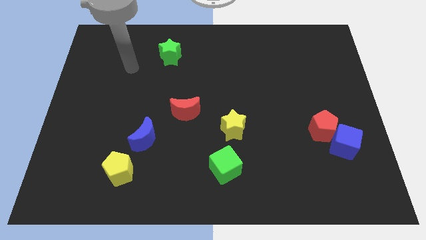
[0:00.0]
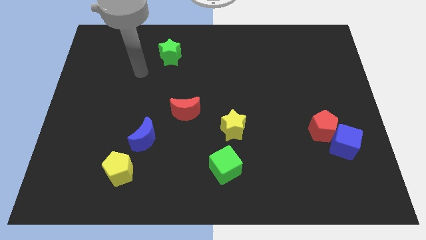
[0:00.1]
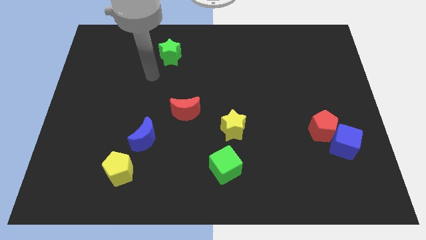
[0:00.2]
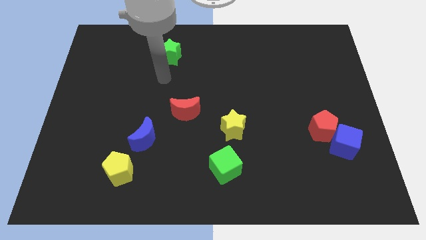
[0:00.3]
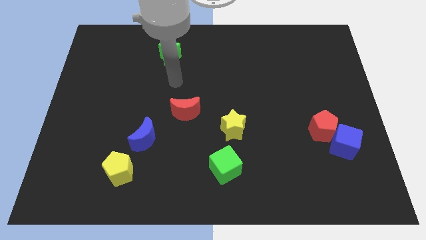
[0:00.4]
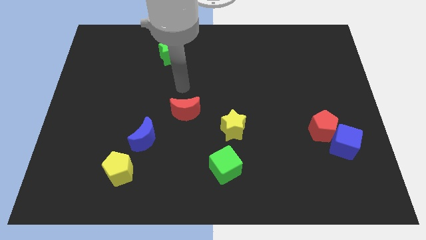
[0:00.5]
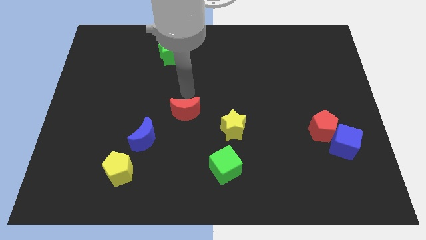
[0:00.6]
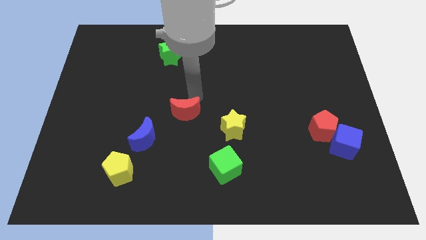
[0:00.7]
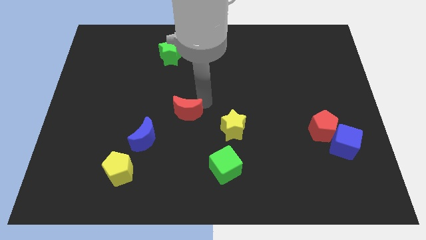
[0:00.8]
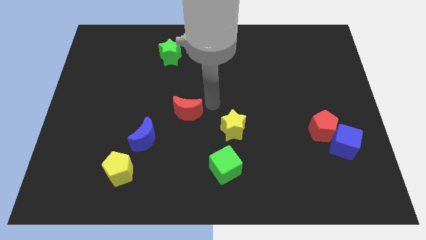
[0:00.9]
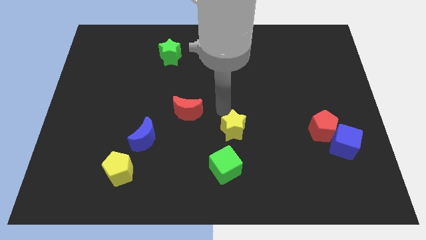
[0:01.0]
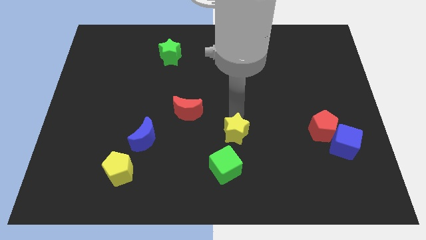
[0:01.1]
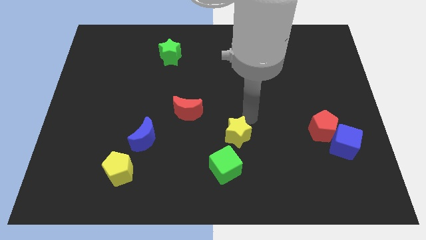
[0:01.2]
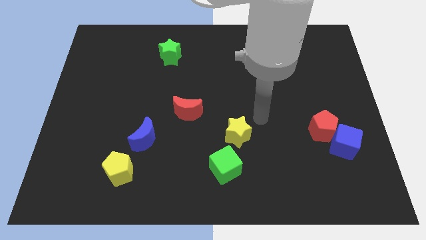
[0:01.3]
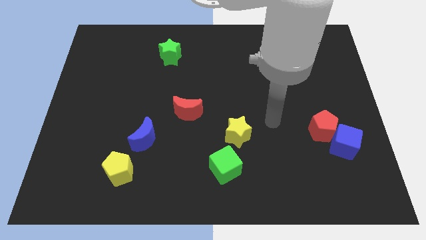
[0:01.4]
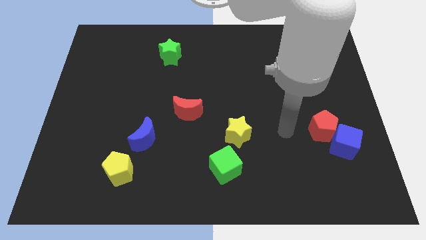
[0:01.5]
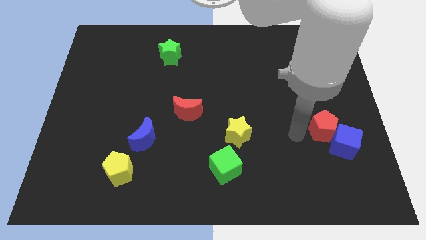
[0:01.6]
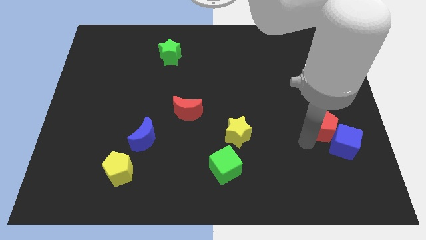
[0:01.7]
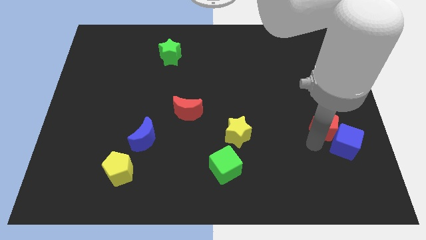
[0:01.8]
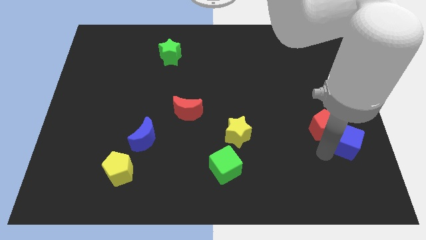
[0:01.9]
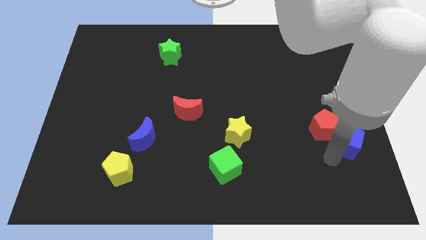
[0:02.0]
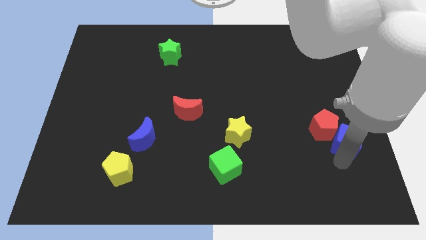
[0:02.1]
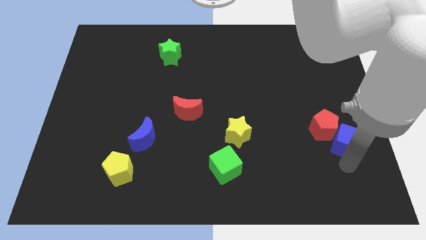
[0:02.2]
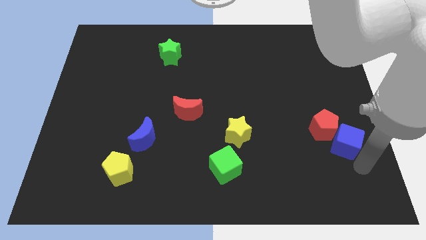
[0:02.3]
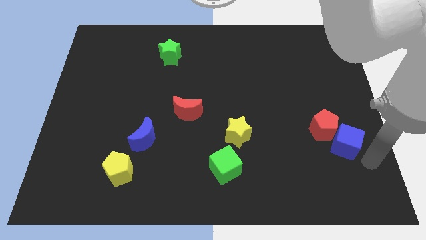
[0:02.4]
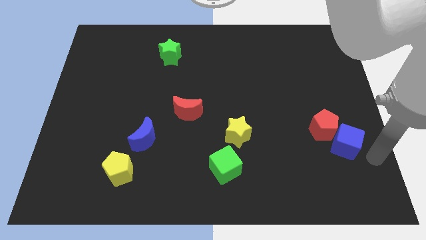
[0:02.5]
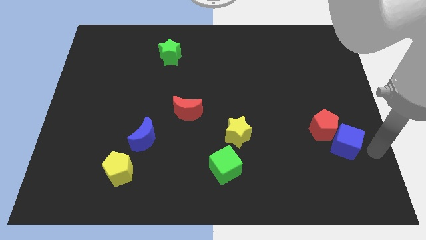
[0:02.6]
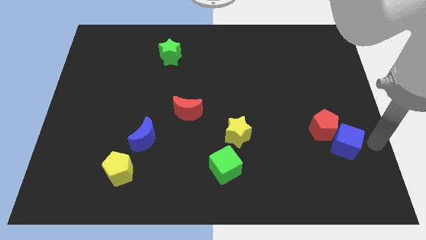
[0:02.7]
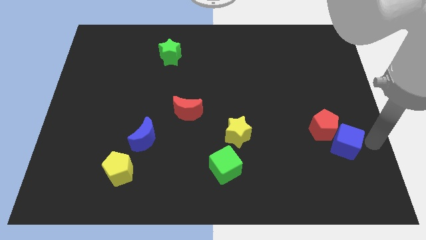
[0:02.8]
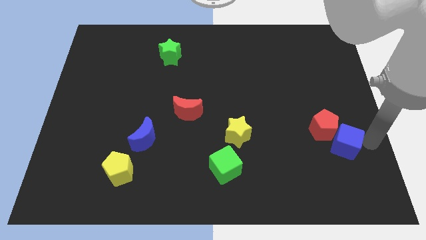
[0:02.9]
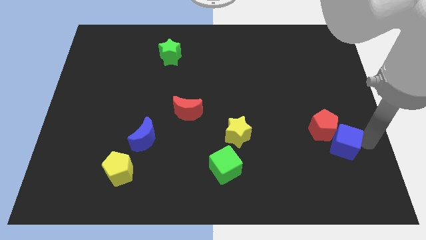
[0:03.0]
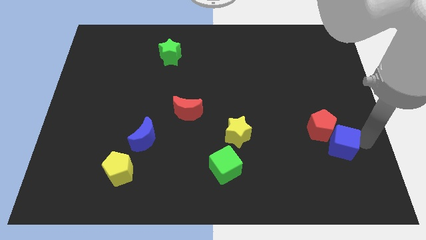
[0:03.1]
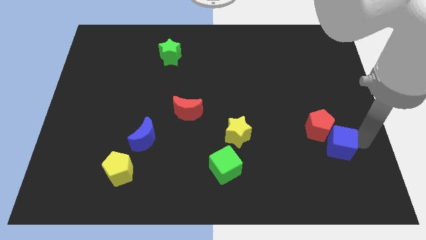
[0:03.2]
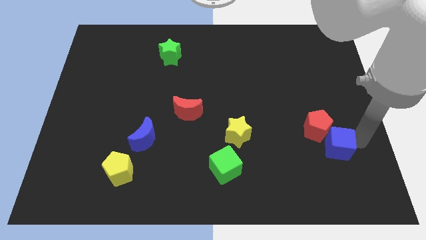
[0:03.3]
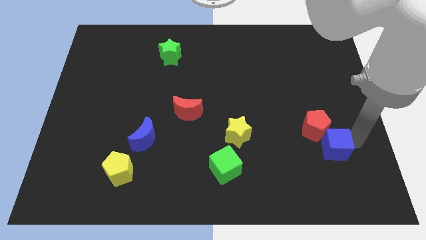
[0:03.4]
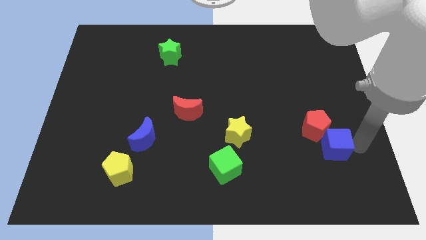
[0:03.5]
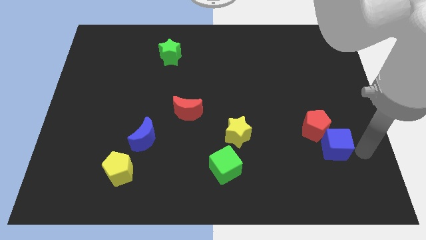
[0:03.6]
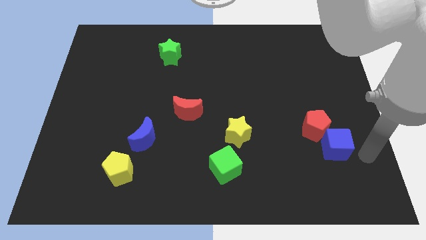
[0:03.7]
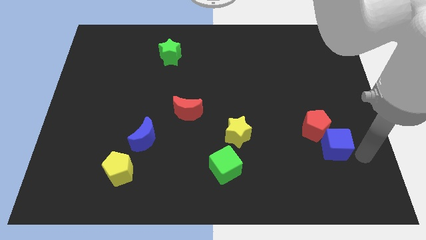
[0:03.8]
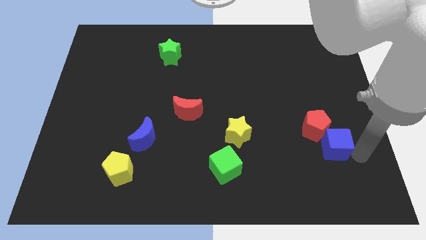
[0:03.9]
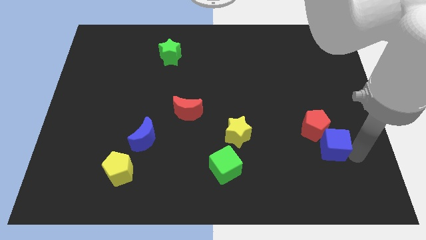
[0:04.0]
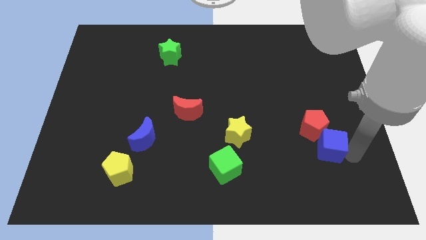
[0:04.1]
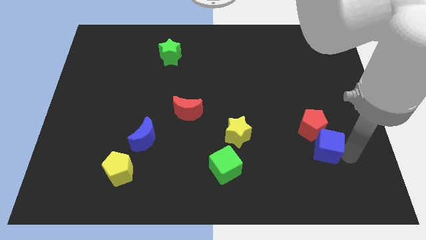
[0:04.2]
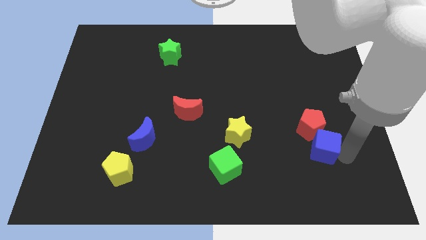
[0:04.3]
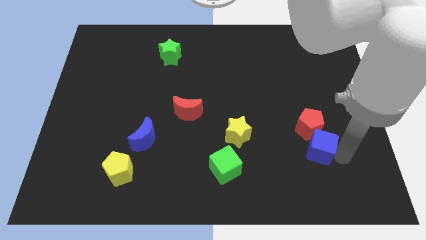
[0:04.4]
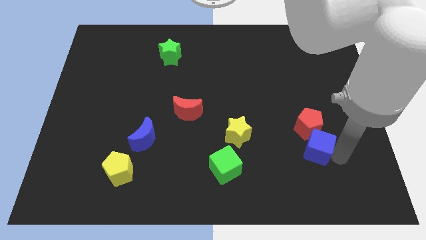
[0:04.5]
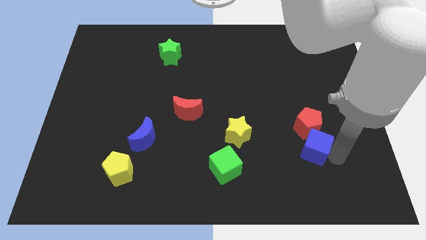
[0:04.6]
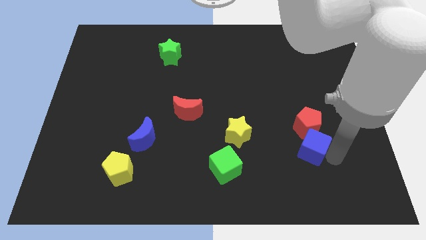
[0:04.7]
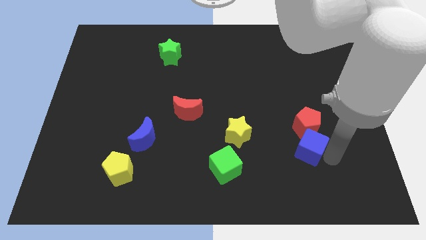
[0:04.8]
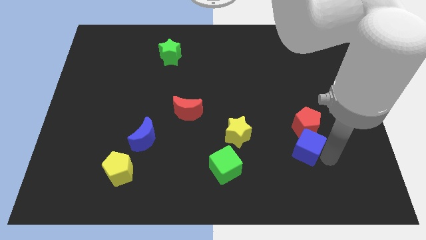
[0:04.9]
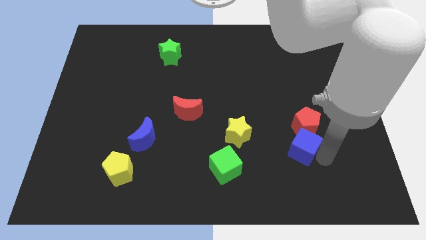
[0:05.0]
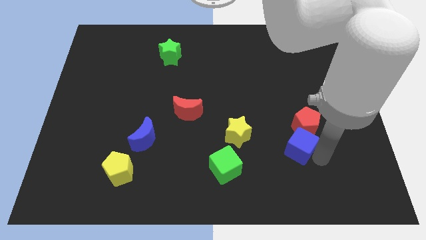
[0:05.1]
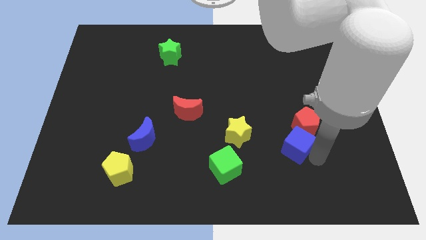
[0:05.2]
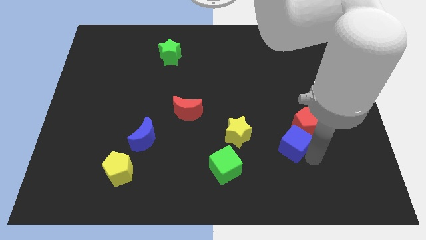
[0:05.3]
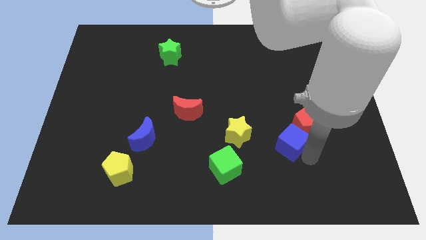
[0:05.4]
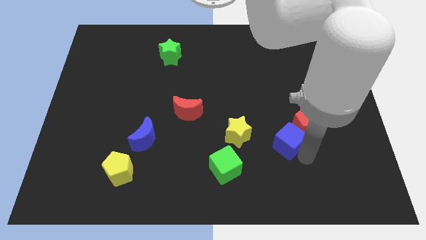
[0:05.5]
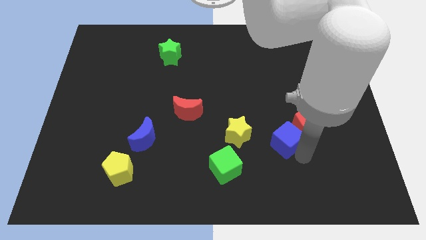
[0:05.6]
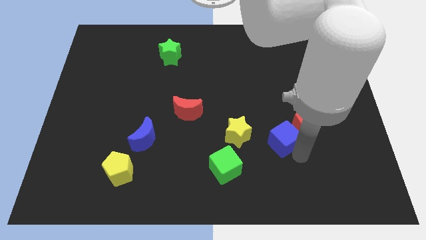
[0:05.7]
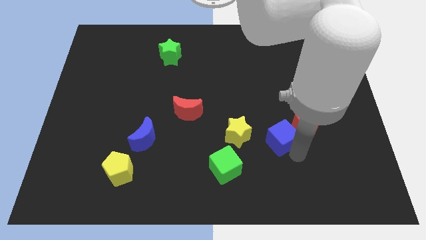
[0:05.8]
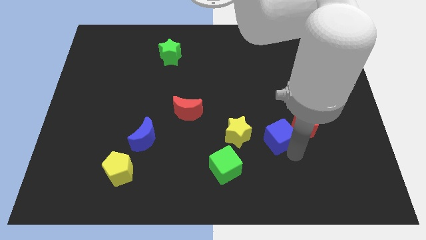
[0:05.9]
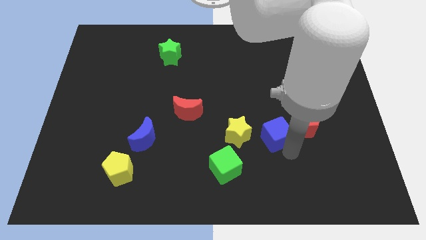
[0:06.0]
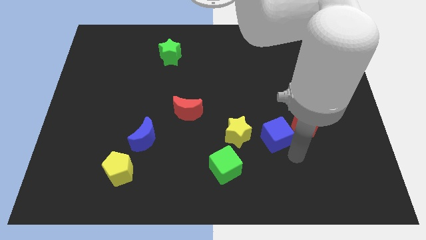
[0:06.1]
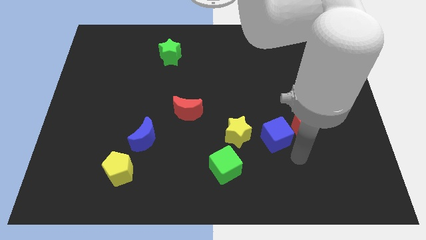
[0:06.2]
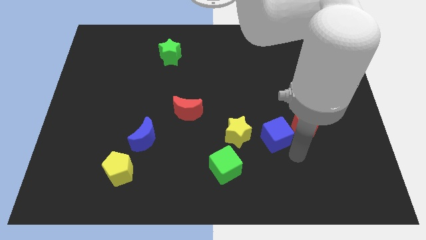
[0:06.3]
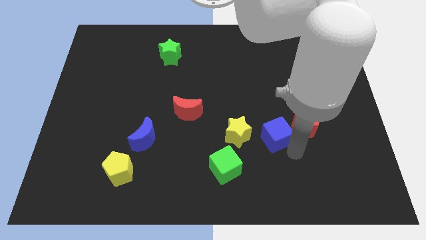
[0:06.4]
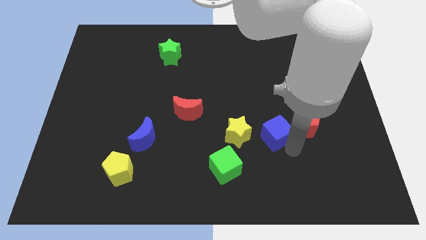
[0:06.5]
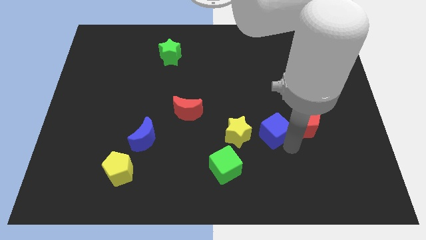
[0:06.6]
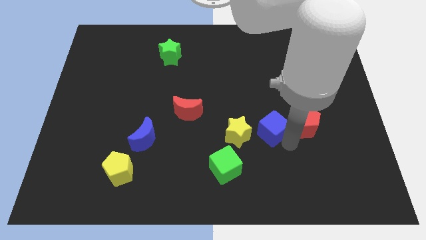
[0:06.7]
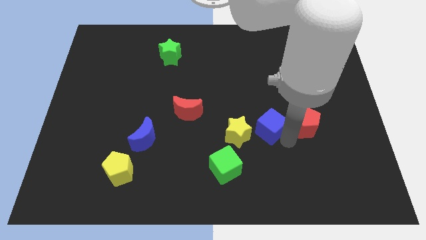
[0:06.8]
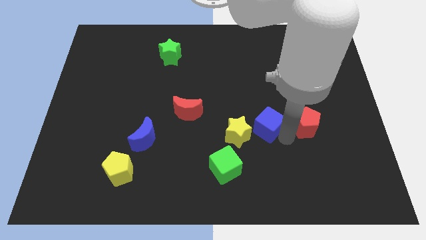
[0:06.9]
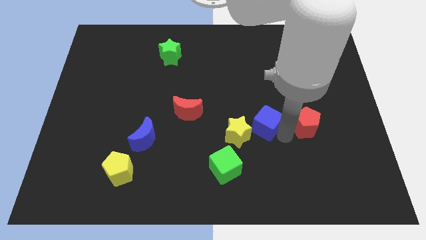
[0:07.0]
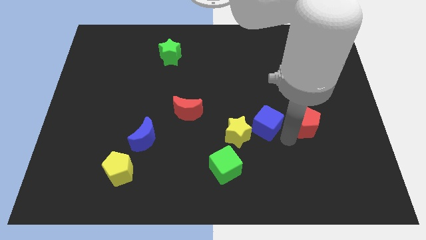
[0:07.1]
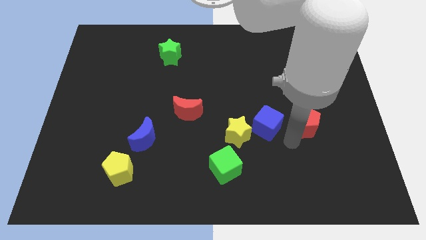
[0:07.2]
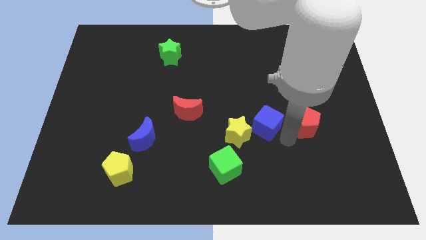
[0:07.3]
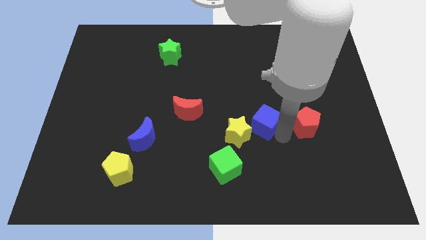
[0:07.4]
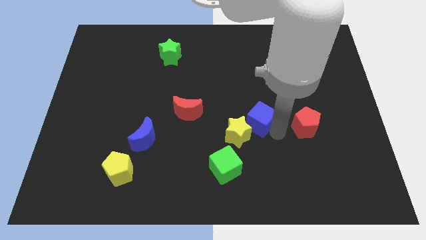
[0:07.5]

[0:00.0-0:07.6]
put the blue cube to the middle
